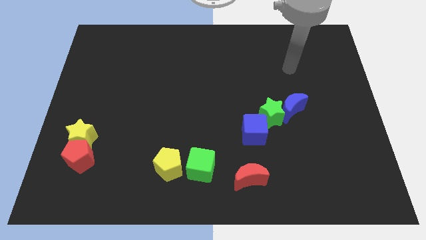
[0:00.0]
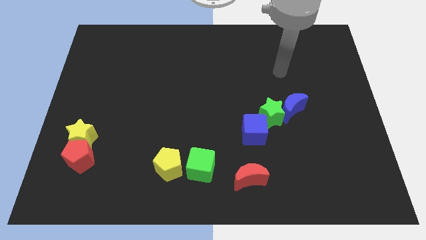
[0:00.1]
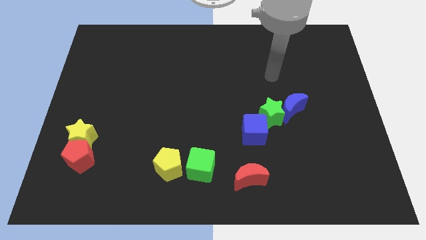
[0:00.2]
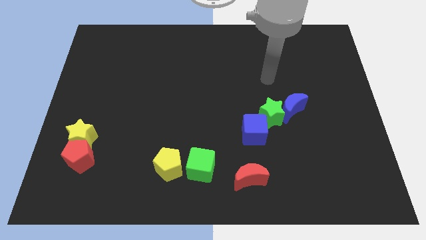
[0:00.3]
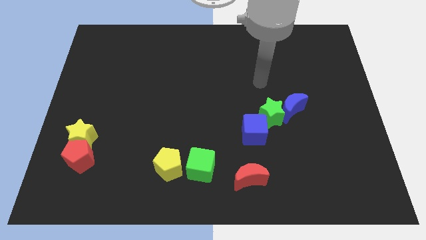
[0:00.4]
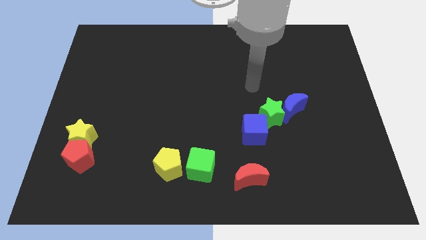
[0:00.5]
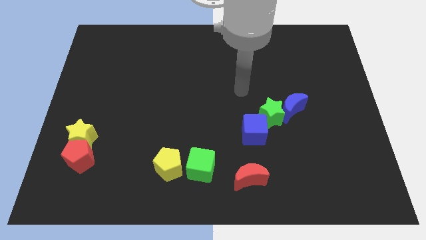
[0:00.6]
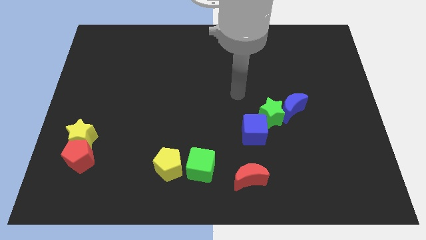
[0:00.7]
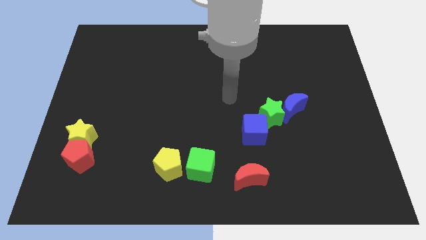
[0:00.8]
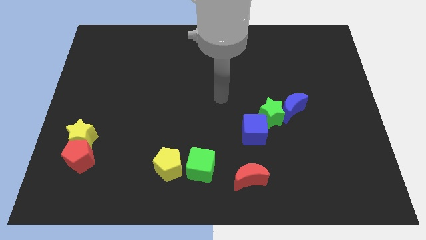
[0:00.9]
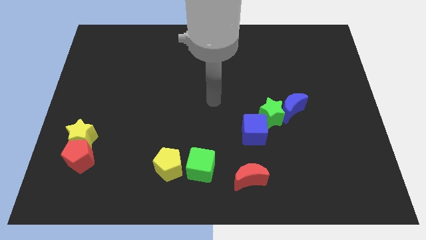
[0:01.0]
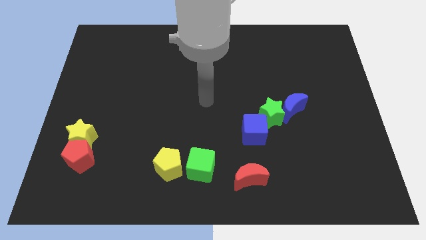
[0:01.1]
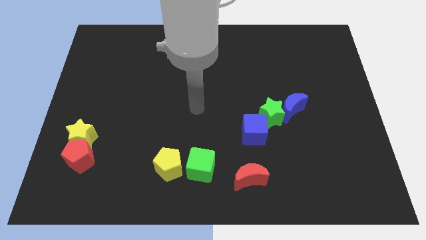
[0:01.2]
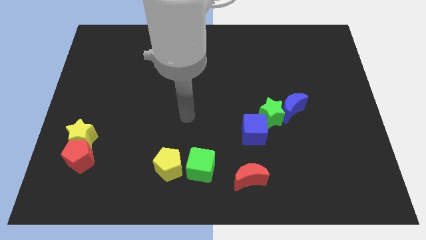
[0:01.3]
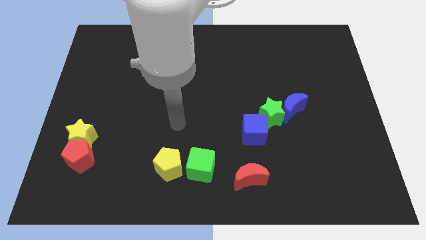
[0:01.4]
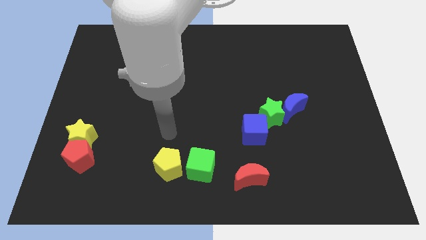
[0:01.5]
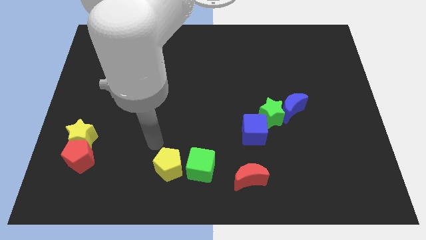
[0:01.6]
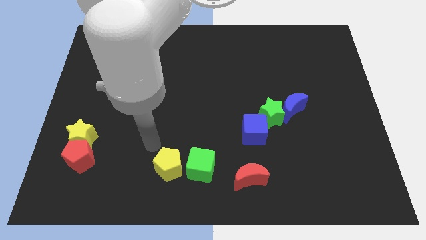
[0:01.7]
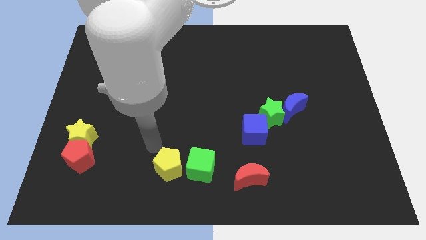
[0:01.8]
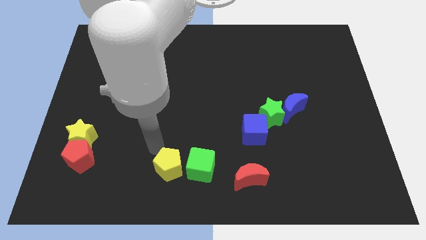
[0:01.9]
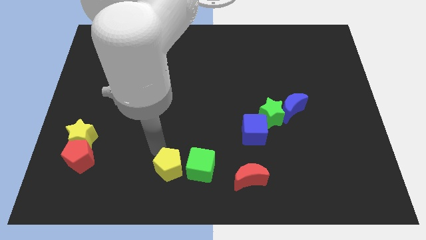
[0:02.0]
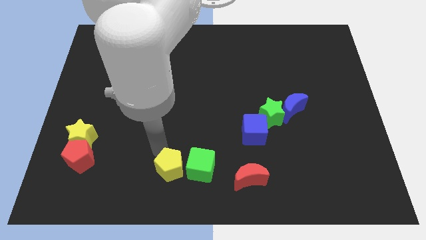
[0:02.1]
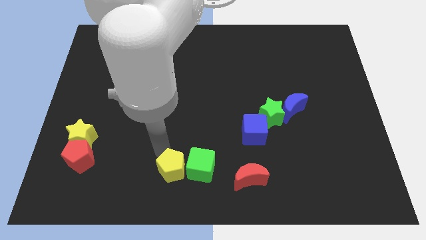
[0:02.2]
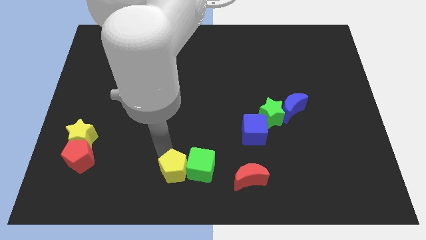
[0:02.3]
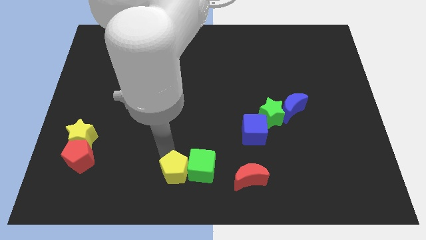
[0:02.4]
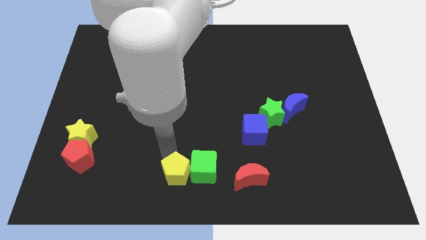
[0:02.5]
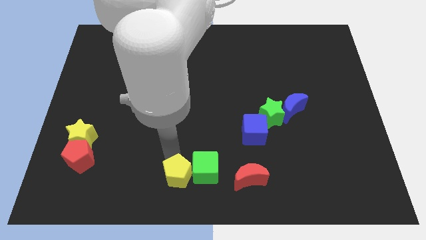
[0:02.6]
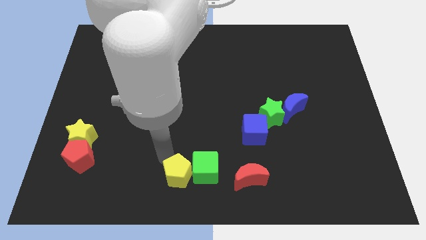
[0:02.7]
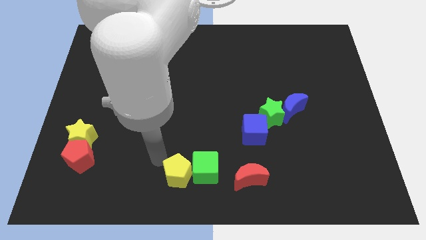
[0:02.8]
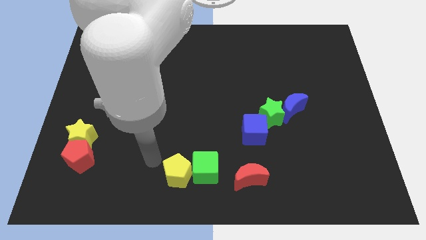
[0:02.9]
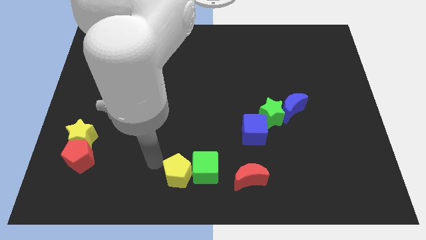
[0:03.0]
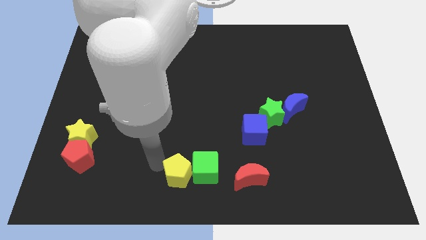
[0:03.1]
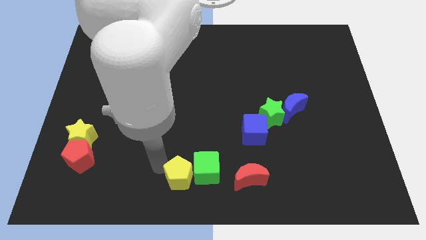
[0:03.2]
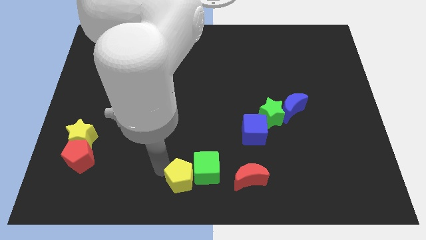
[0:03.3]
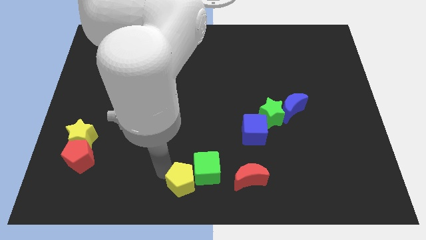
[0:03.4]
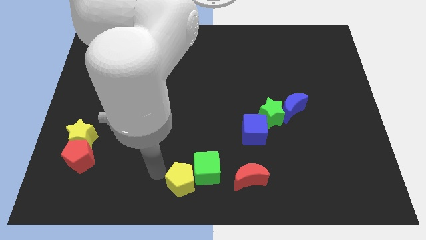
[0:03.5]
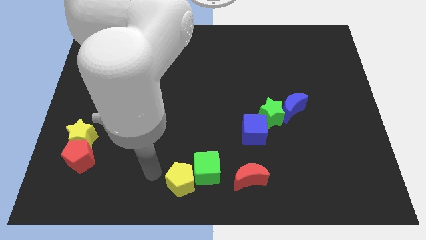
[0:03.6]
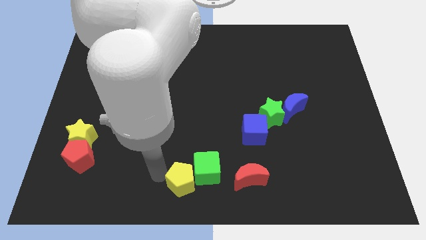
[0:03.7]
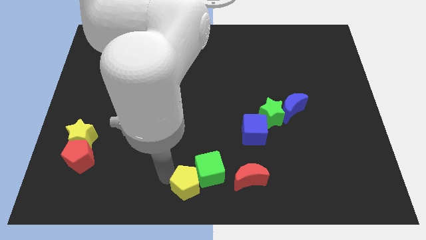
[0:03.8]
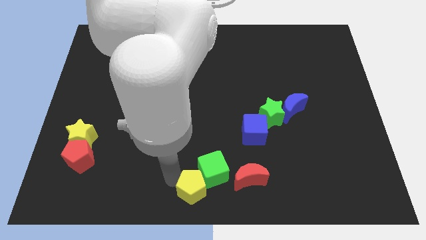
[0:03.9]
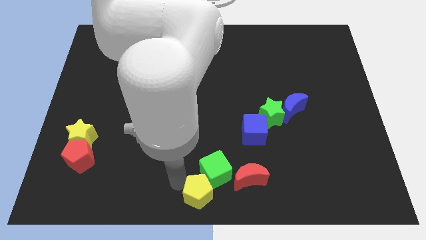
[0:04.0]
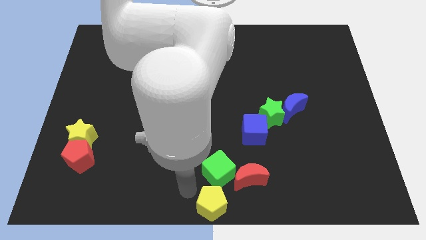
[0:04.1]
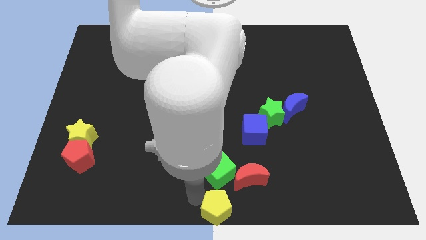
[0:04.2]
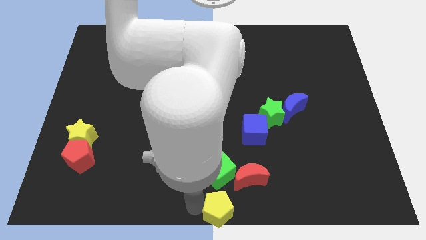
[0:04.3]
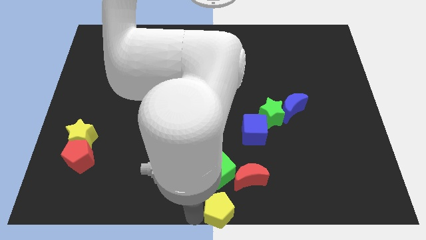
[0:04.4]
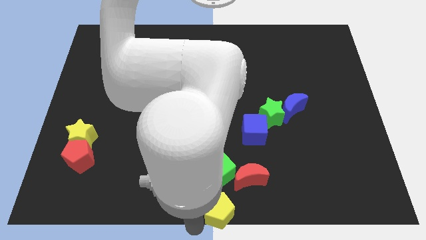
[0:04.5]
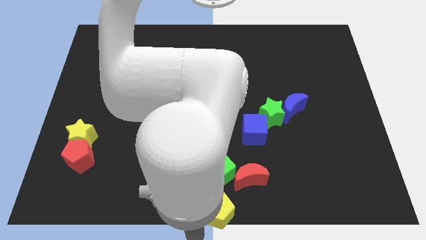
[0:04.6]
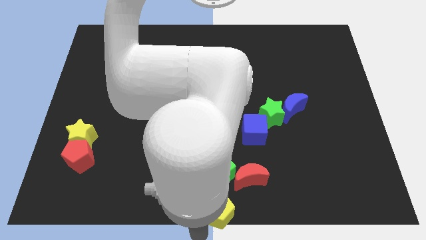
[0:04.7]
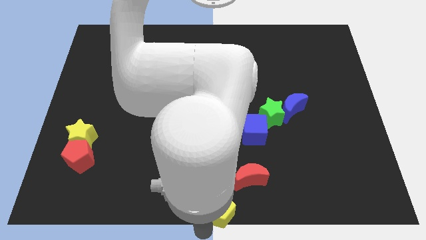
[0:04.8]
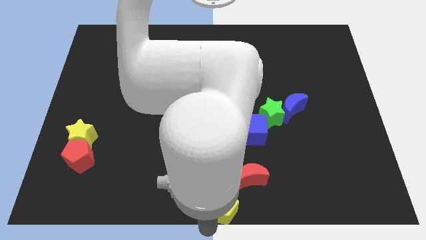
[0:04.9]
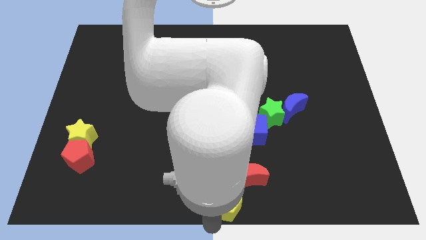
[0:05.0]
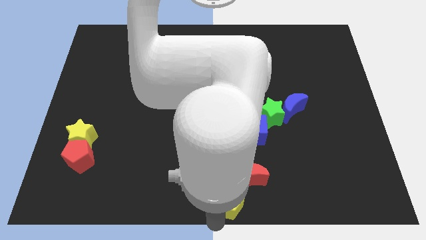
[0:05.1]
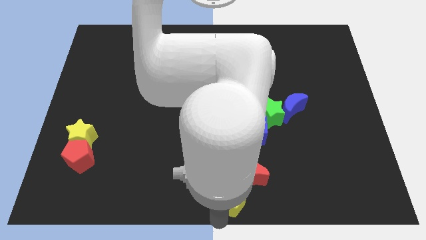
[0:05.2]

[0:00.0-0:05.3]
move the yellow pentagon close to the red moon

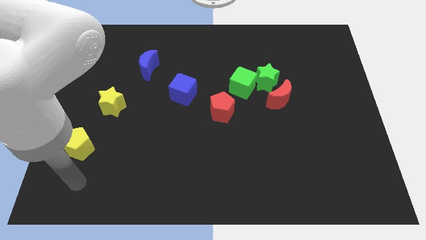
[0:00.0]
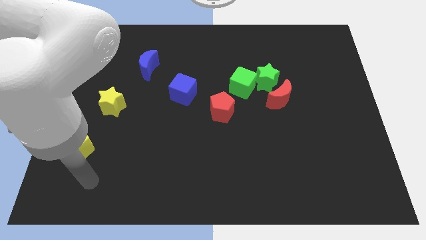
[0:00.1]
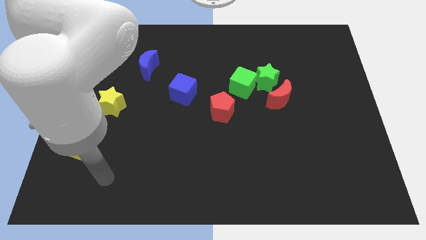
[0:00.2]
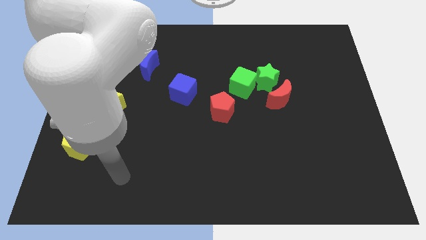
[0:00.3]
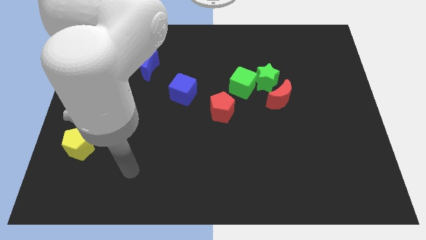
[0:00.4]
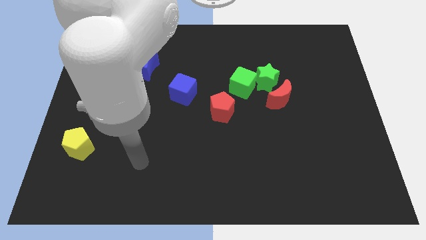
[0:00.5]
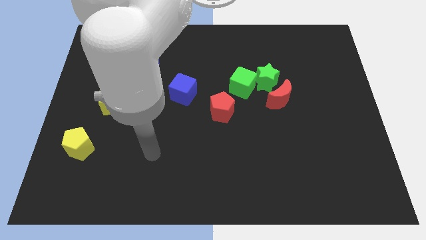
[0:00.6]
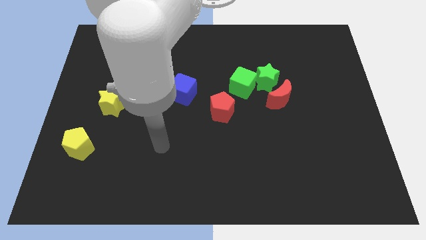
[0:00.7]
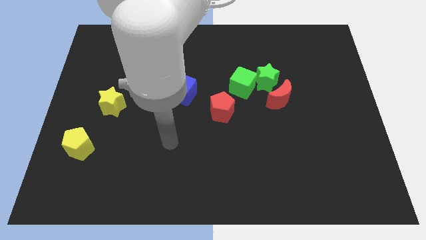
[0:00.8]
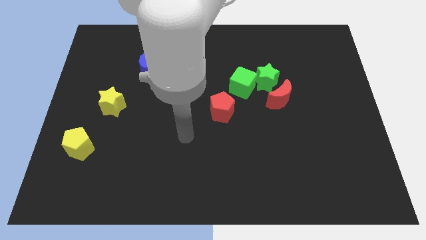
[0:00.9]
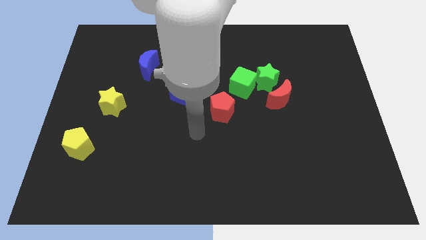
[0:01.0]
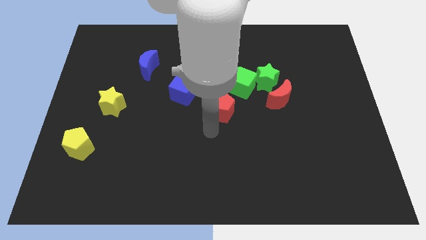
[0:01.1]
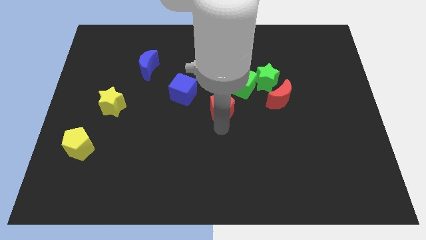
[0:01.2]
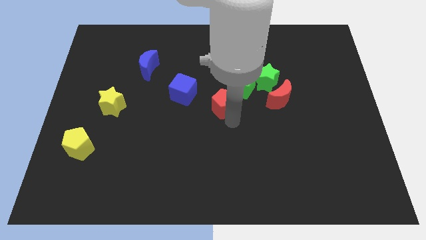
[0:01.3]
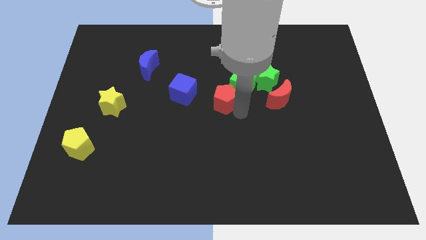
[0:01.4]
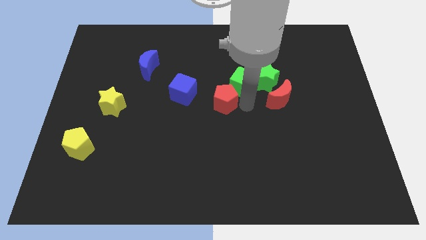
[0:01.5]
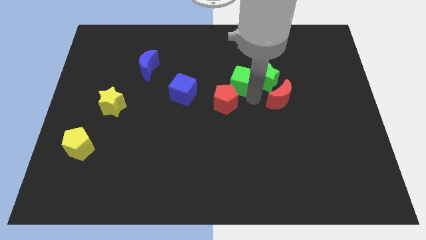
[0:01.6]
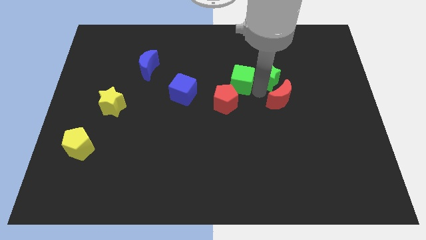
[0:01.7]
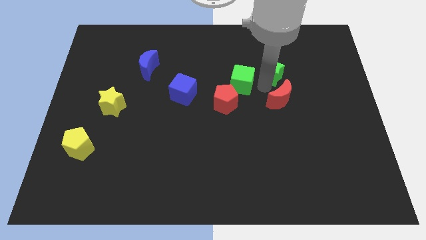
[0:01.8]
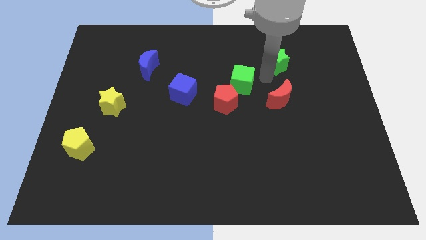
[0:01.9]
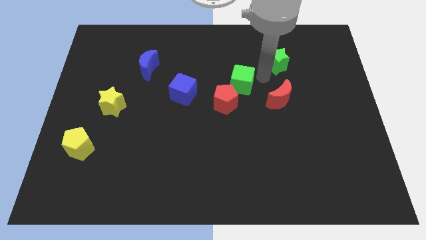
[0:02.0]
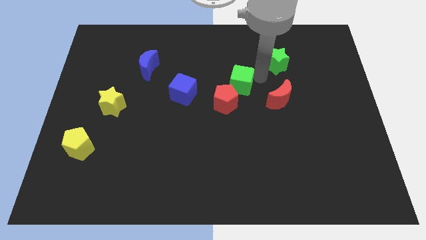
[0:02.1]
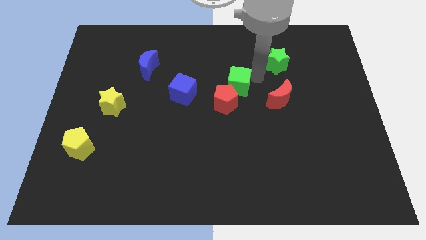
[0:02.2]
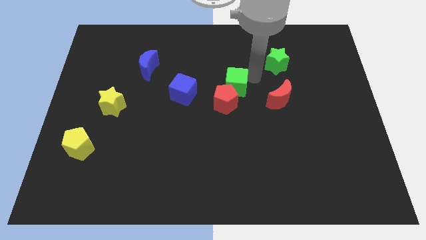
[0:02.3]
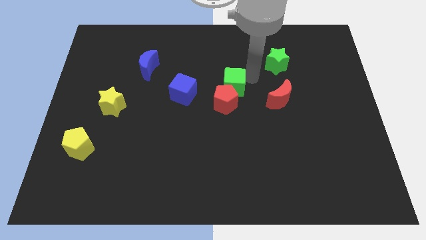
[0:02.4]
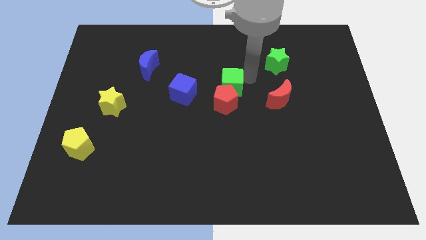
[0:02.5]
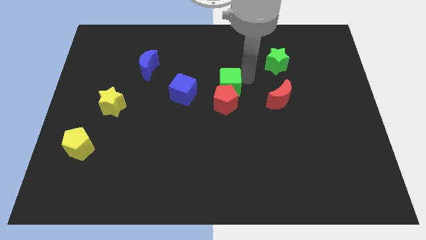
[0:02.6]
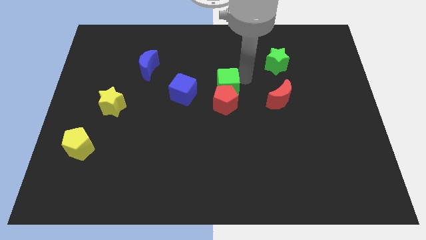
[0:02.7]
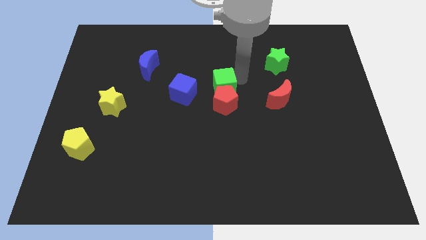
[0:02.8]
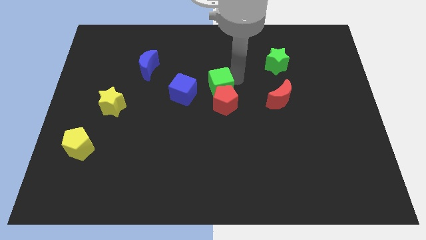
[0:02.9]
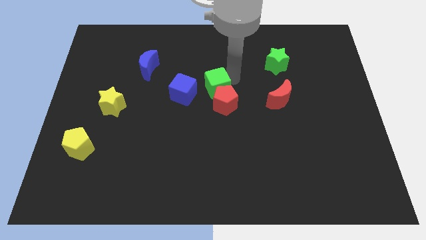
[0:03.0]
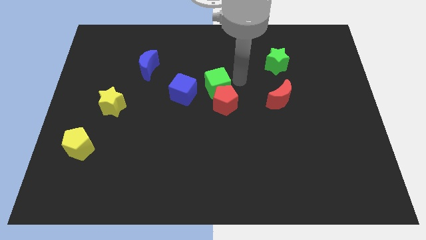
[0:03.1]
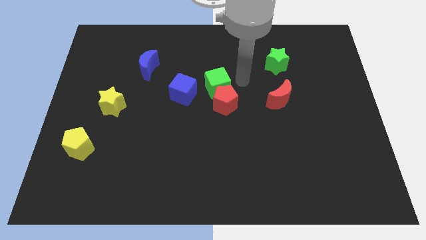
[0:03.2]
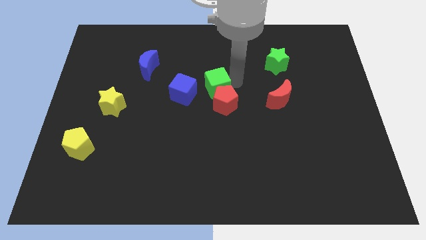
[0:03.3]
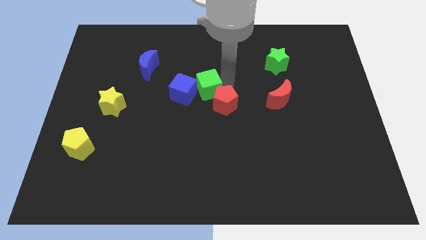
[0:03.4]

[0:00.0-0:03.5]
slide the green cube next to the blue cube
